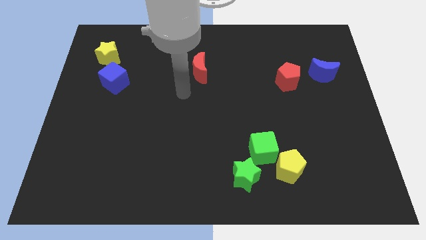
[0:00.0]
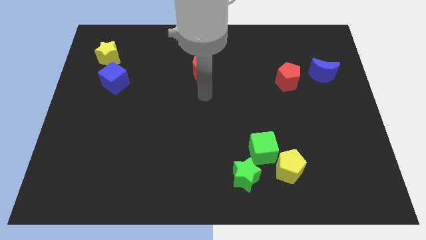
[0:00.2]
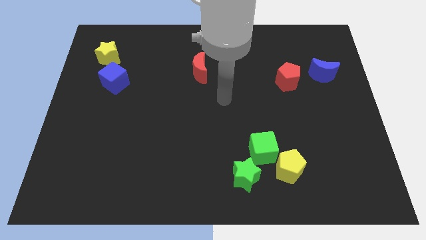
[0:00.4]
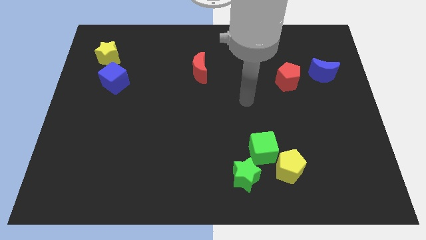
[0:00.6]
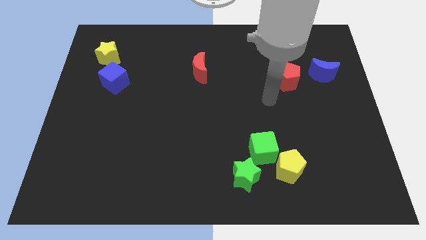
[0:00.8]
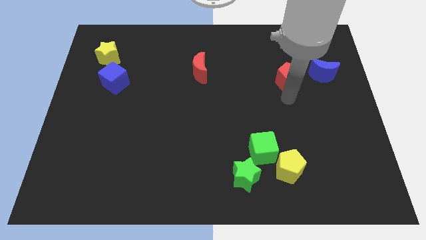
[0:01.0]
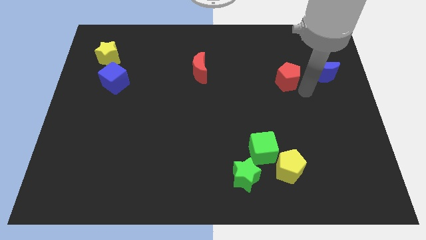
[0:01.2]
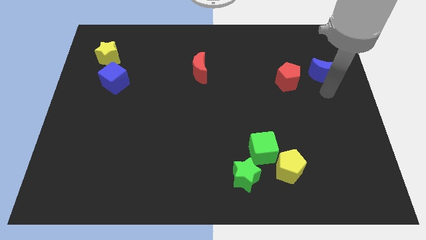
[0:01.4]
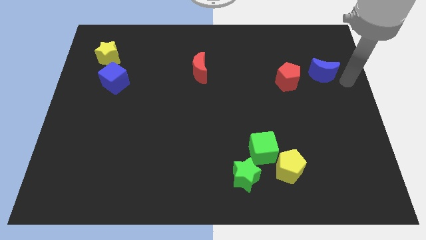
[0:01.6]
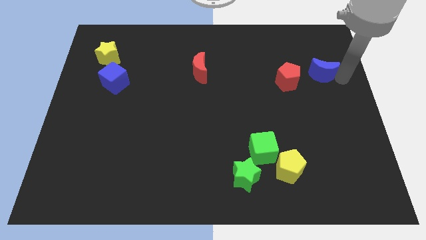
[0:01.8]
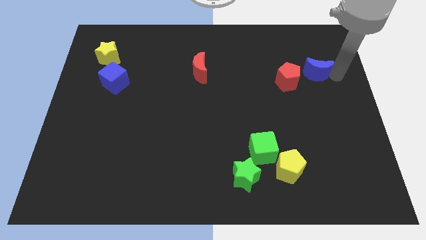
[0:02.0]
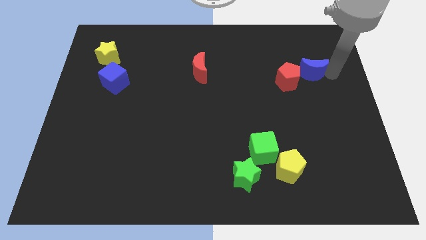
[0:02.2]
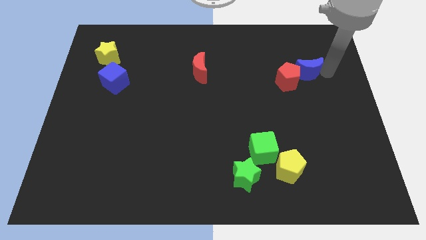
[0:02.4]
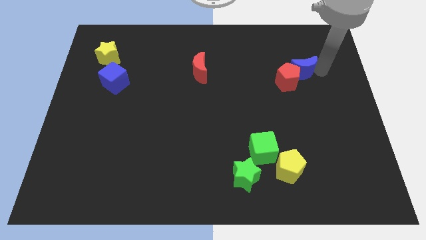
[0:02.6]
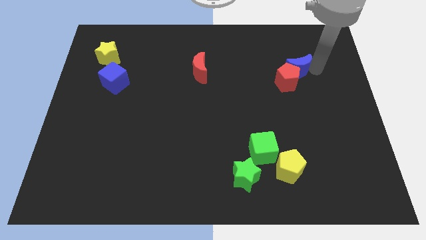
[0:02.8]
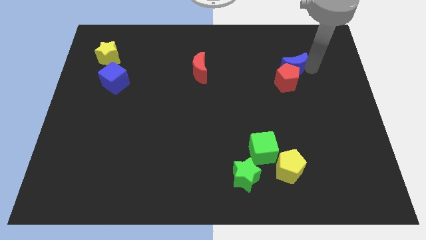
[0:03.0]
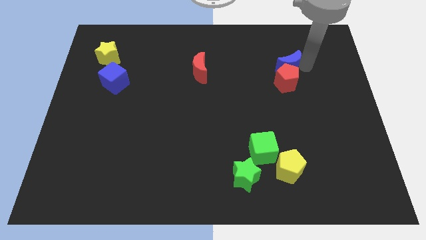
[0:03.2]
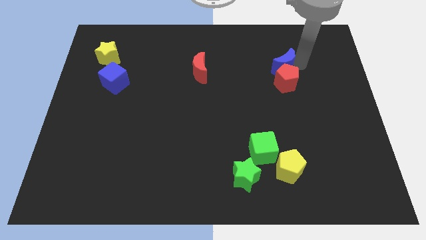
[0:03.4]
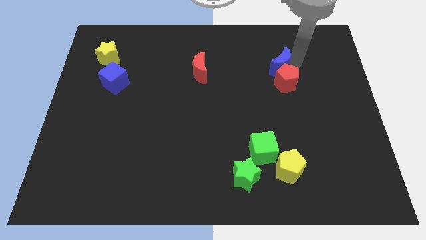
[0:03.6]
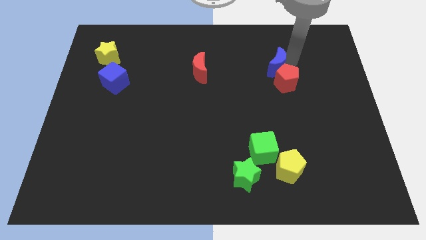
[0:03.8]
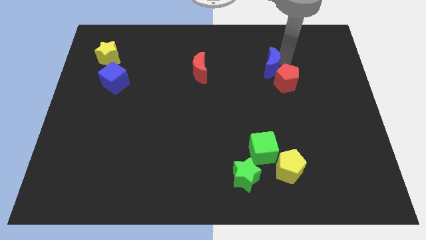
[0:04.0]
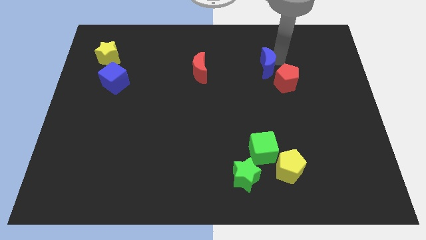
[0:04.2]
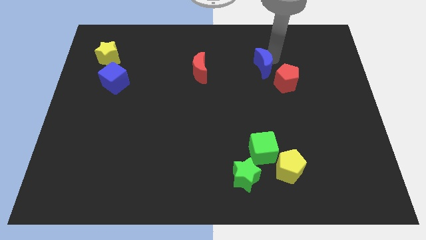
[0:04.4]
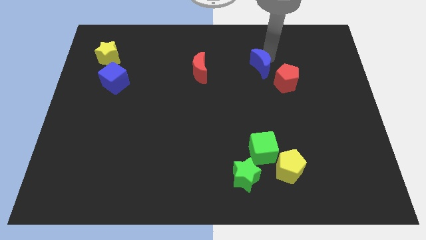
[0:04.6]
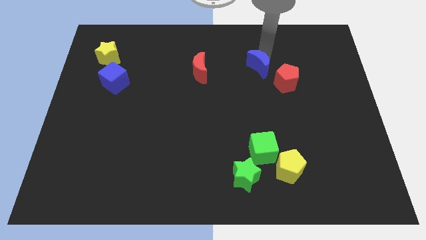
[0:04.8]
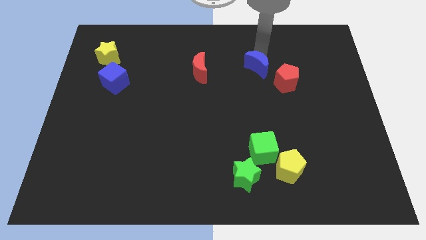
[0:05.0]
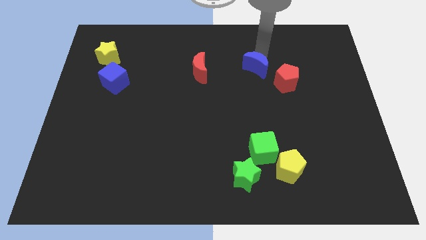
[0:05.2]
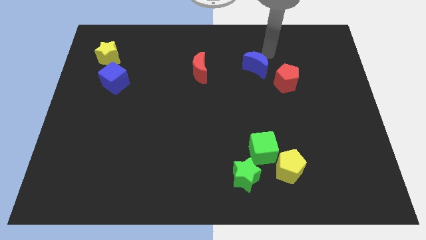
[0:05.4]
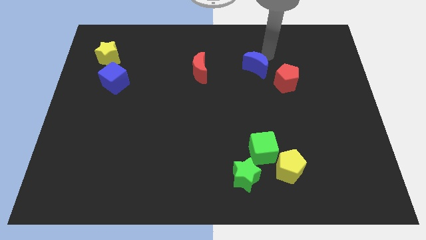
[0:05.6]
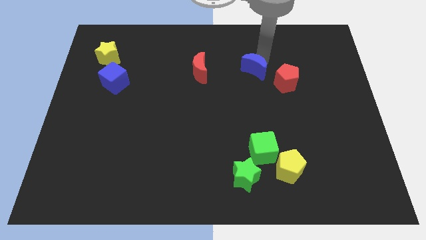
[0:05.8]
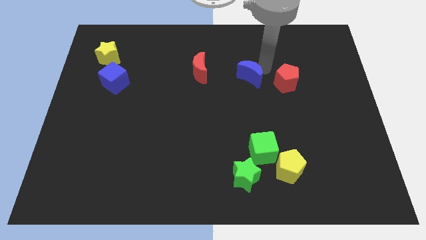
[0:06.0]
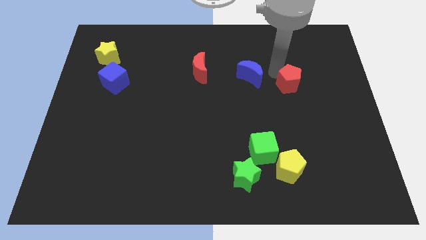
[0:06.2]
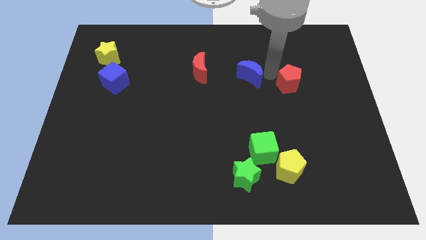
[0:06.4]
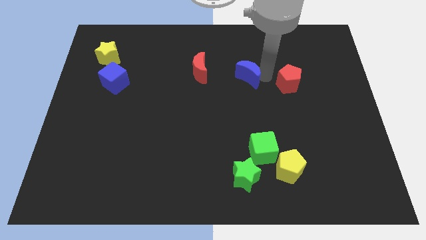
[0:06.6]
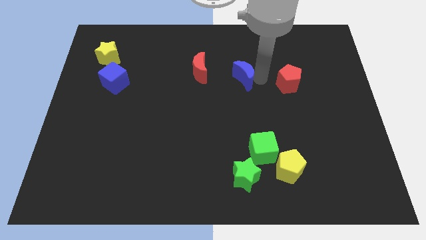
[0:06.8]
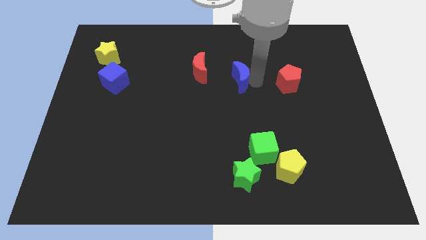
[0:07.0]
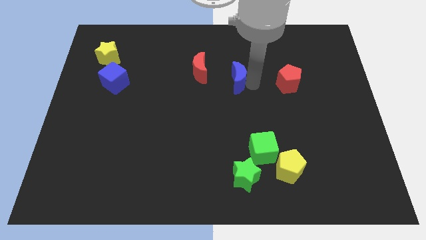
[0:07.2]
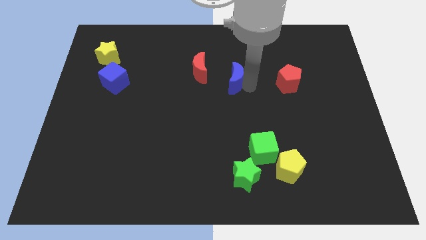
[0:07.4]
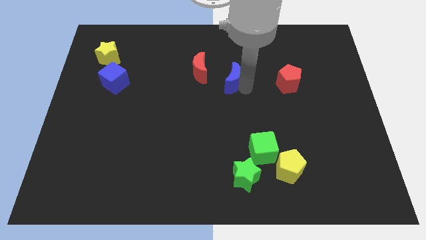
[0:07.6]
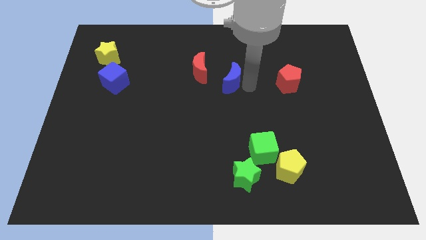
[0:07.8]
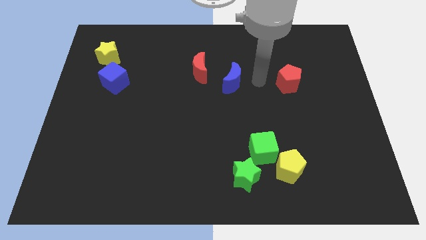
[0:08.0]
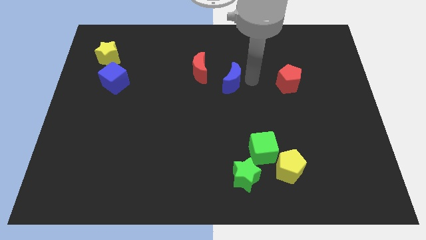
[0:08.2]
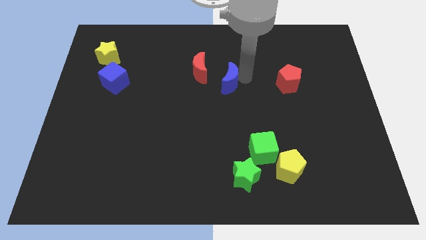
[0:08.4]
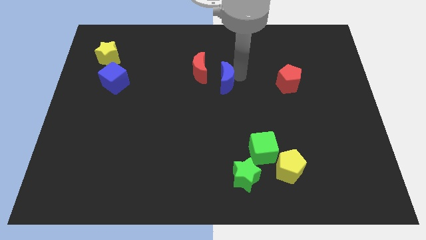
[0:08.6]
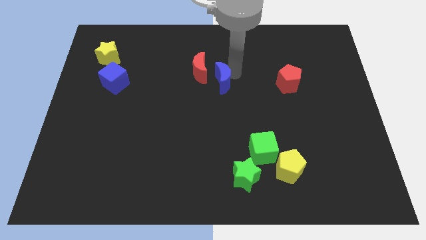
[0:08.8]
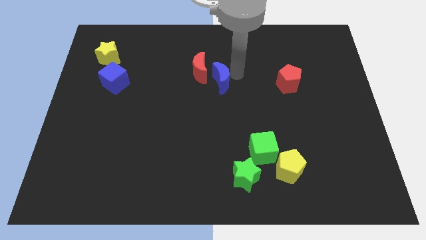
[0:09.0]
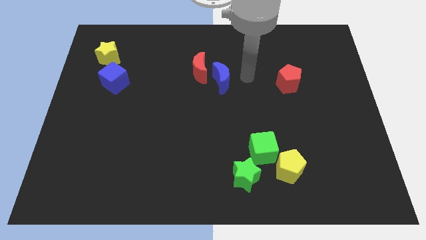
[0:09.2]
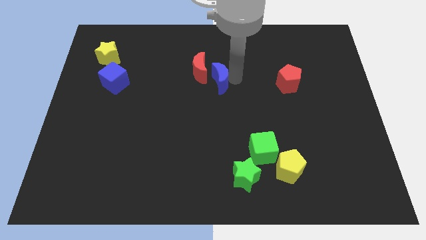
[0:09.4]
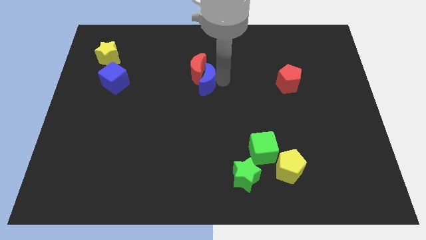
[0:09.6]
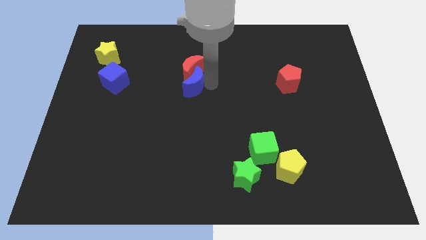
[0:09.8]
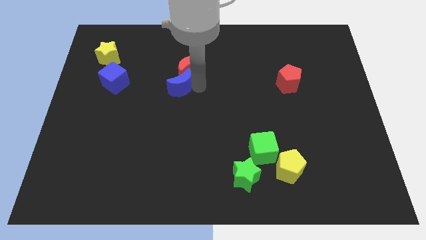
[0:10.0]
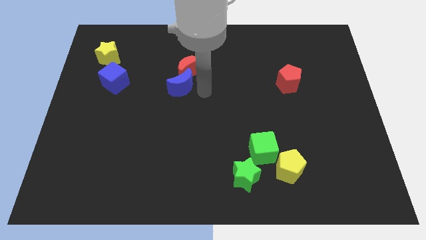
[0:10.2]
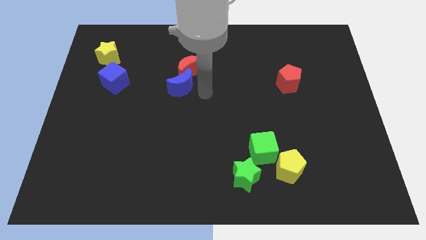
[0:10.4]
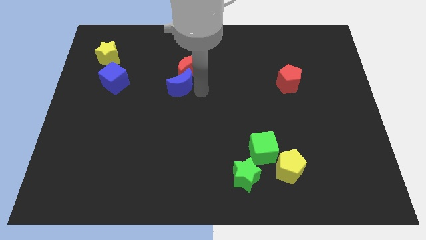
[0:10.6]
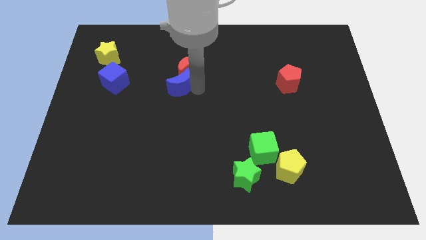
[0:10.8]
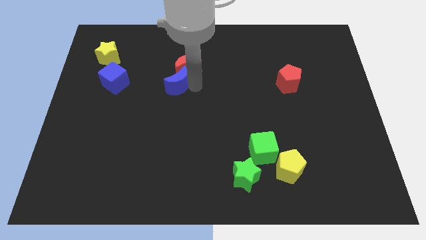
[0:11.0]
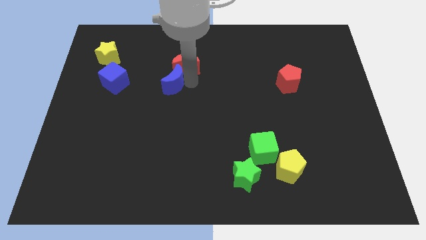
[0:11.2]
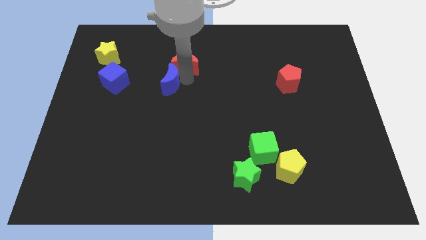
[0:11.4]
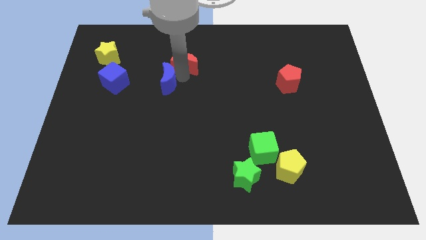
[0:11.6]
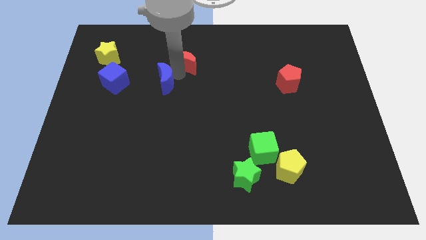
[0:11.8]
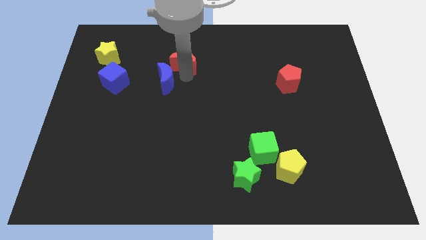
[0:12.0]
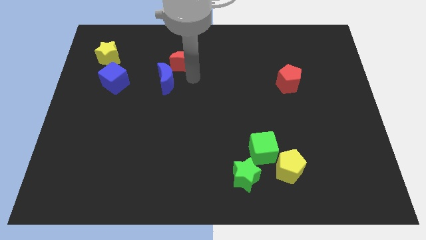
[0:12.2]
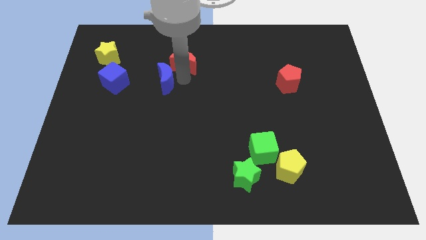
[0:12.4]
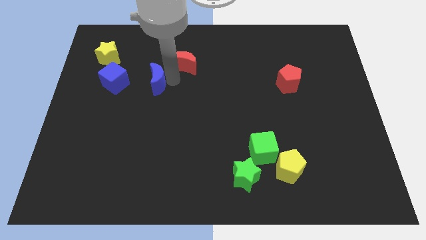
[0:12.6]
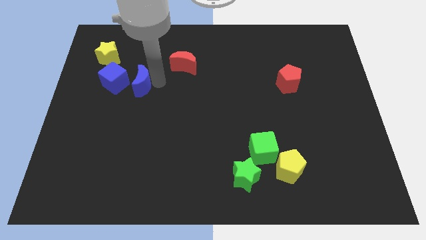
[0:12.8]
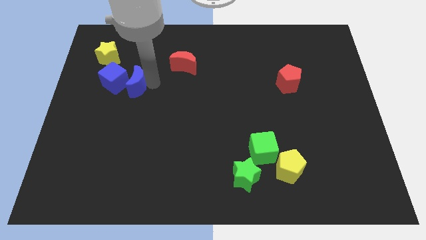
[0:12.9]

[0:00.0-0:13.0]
put the blue moon towards the blue cube

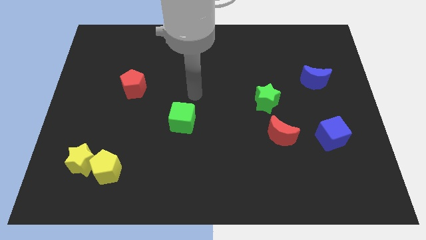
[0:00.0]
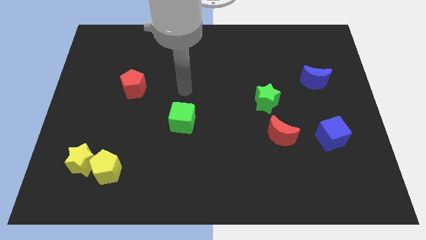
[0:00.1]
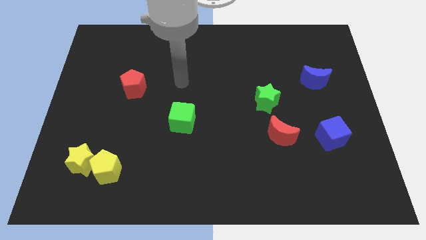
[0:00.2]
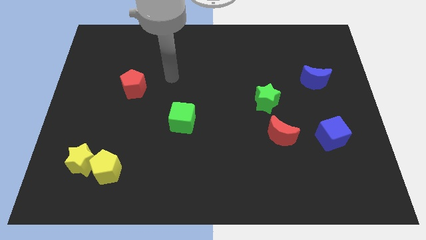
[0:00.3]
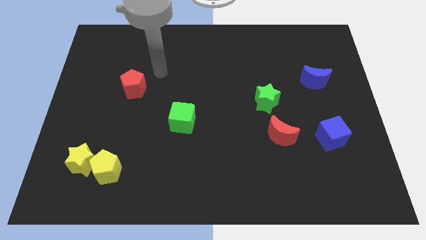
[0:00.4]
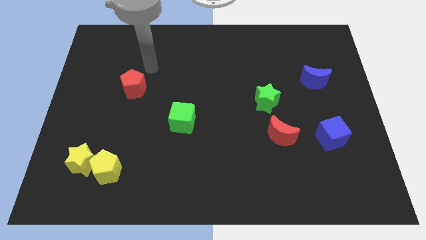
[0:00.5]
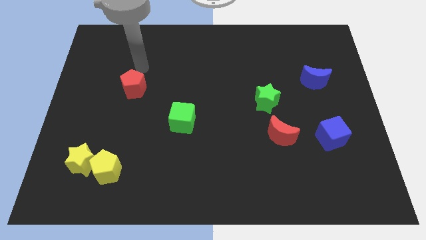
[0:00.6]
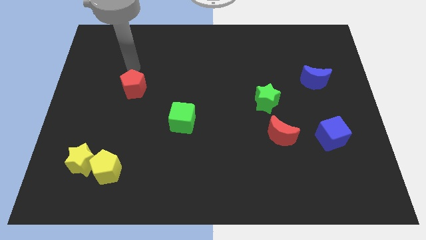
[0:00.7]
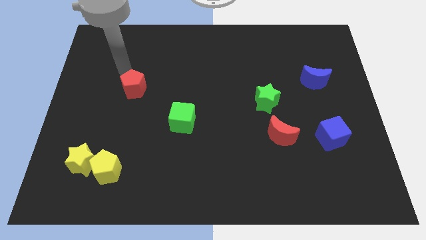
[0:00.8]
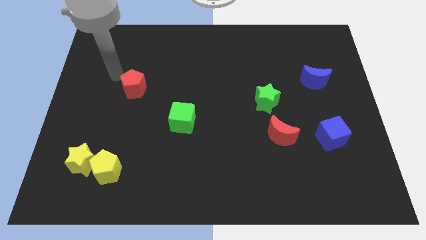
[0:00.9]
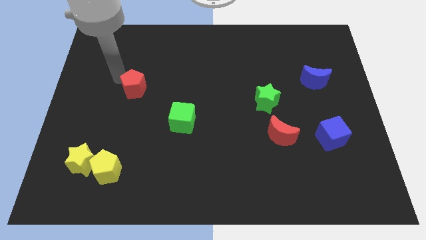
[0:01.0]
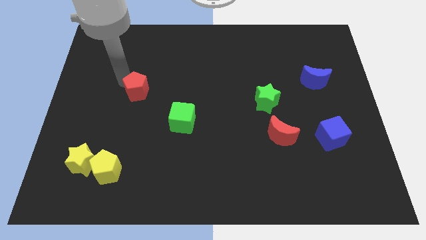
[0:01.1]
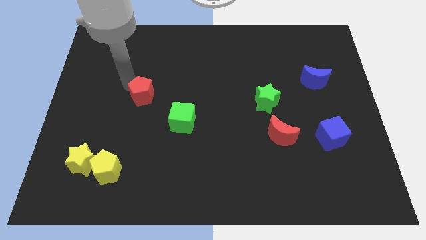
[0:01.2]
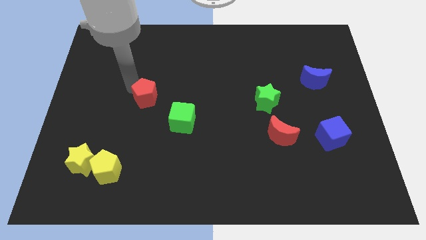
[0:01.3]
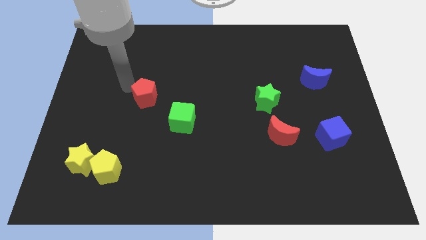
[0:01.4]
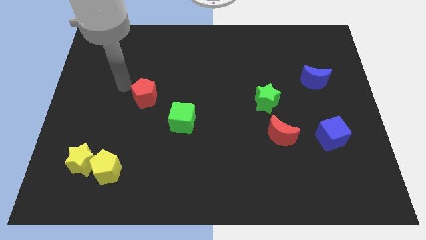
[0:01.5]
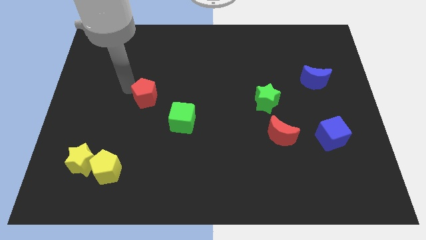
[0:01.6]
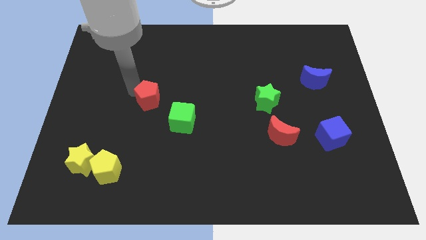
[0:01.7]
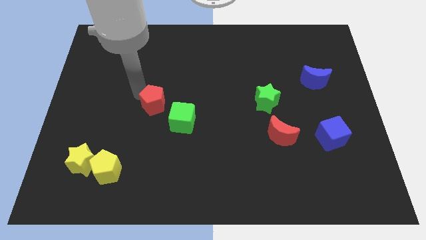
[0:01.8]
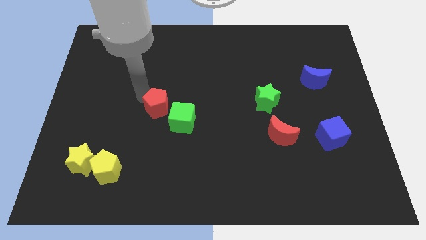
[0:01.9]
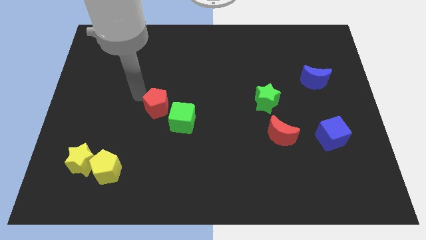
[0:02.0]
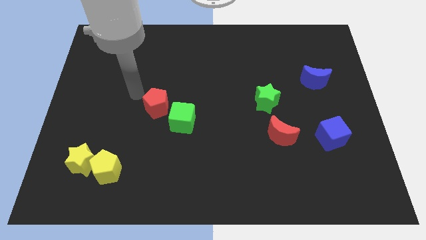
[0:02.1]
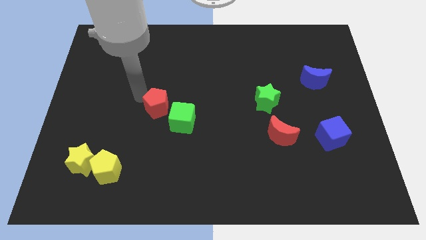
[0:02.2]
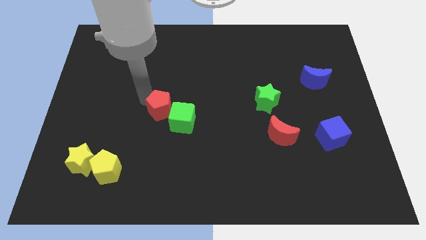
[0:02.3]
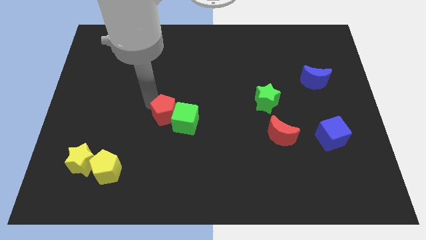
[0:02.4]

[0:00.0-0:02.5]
slide the red pentagon next to the green cube
